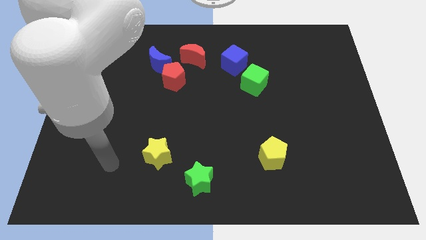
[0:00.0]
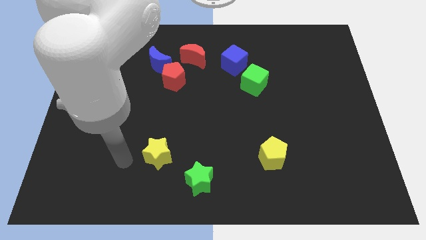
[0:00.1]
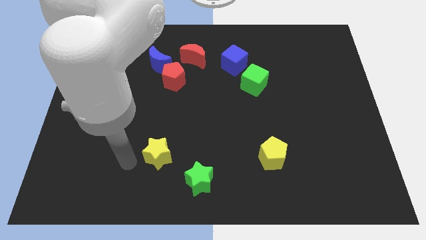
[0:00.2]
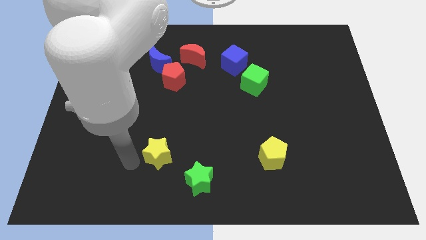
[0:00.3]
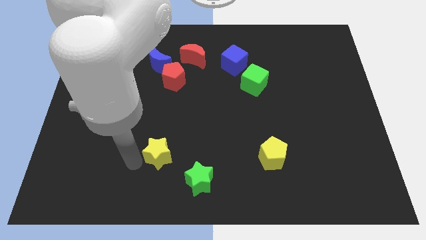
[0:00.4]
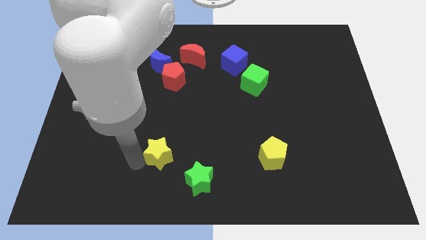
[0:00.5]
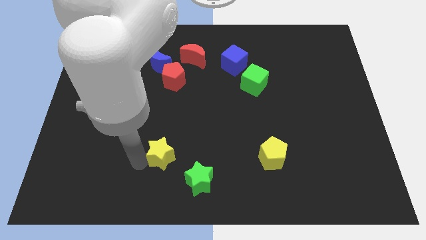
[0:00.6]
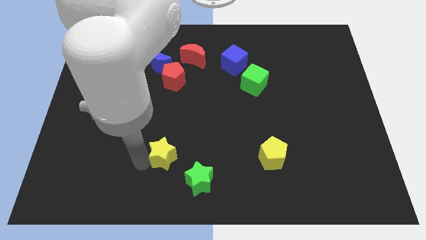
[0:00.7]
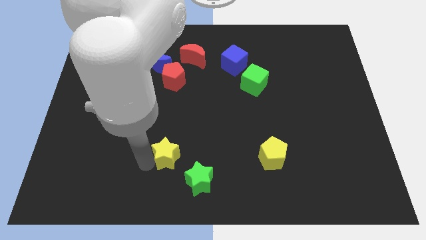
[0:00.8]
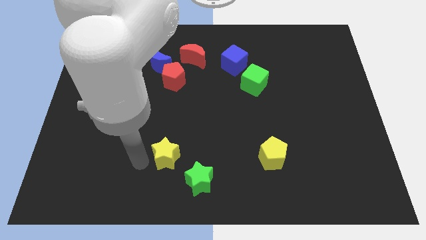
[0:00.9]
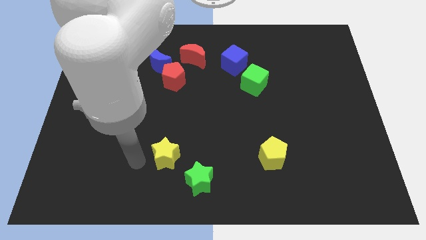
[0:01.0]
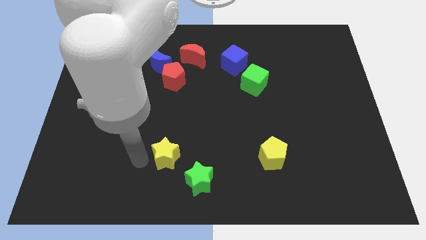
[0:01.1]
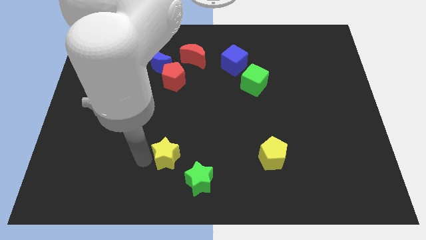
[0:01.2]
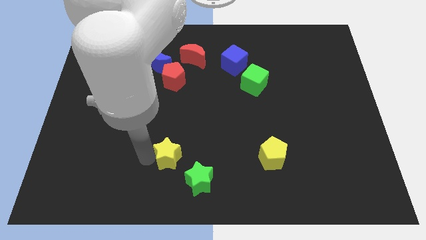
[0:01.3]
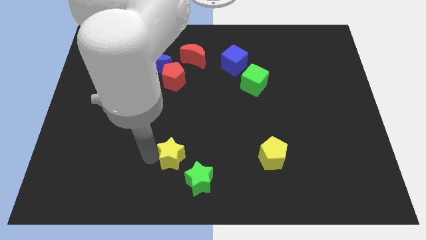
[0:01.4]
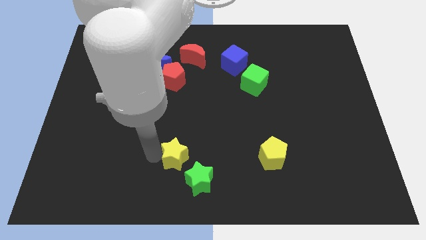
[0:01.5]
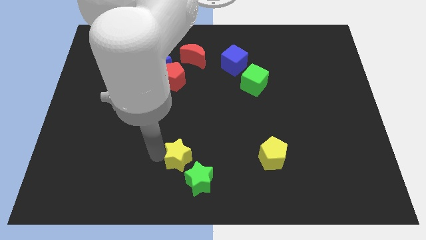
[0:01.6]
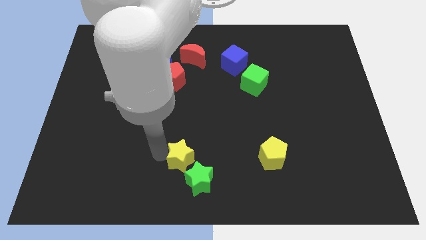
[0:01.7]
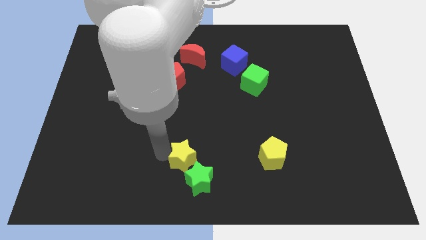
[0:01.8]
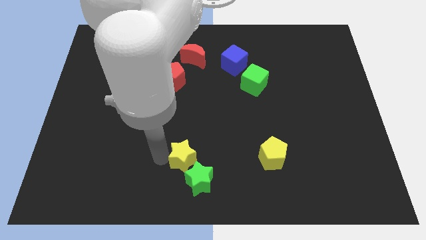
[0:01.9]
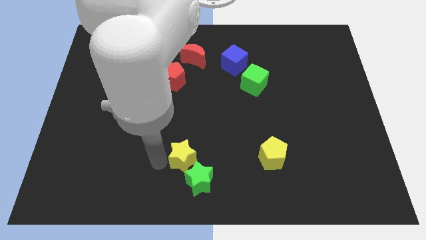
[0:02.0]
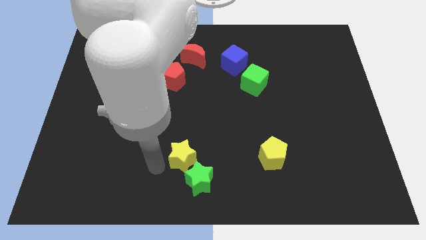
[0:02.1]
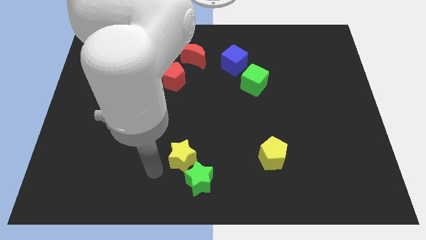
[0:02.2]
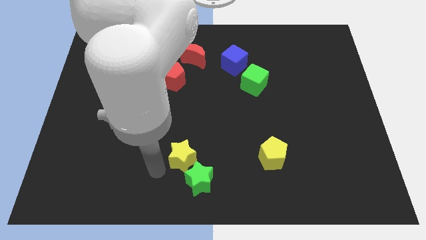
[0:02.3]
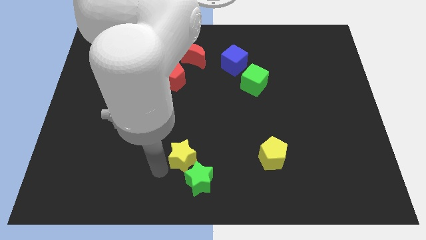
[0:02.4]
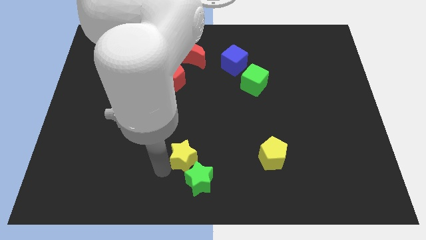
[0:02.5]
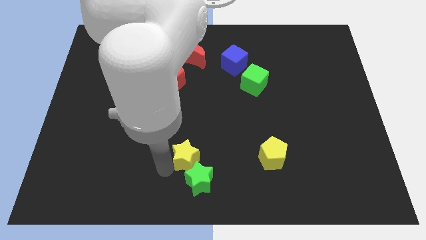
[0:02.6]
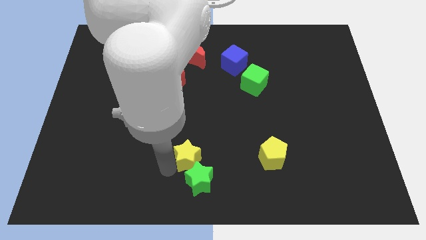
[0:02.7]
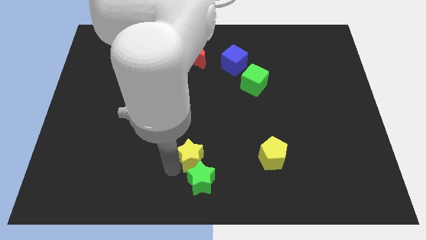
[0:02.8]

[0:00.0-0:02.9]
slide the yellow star a little to the right

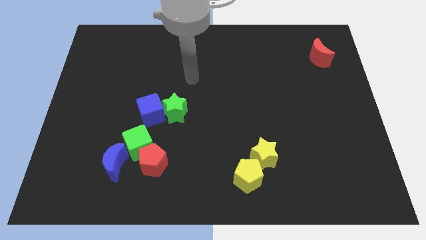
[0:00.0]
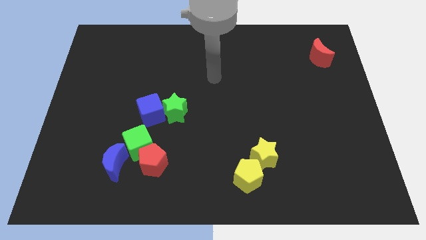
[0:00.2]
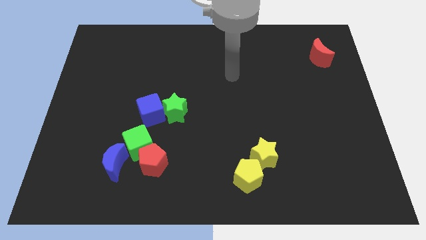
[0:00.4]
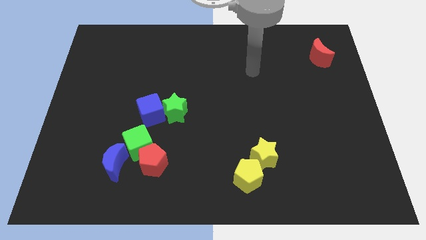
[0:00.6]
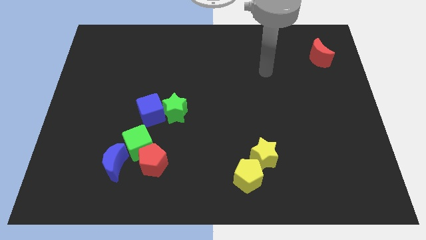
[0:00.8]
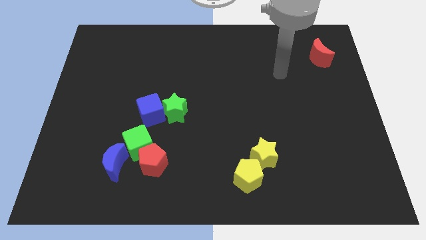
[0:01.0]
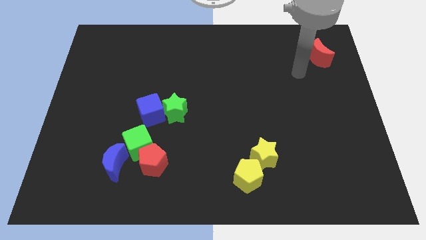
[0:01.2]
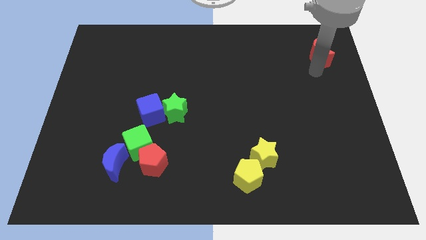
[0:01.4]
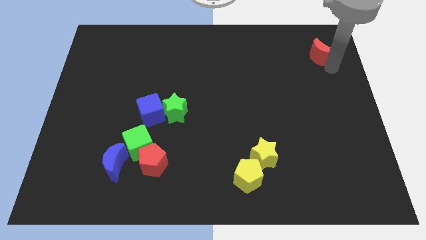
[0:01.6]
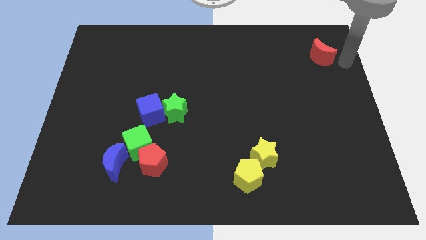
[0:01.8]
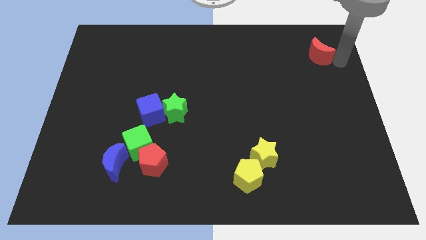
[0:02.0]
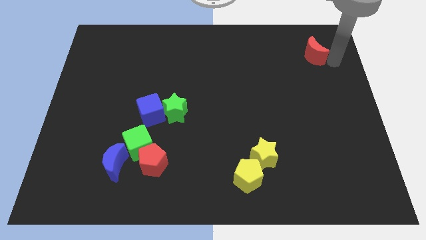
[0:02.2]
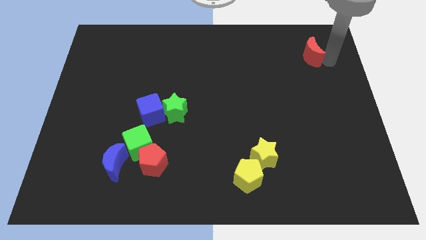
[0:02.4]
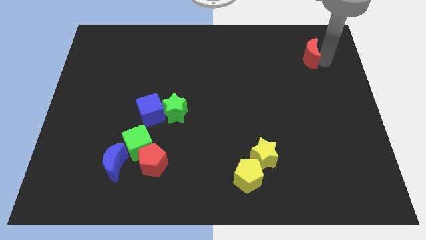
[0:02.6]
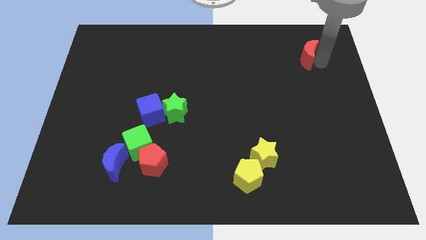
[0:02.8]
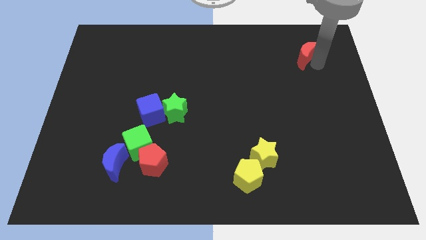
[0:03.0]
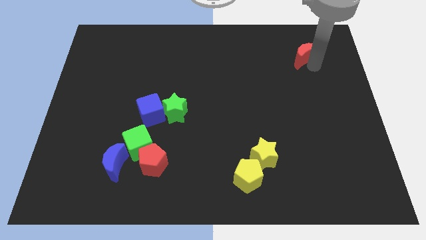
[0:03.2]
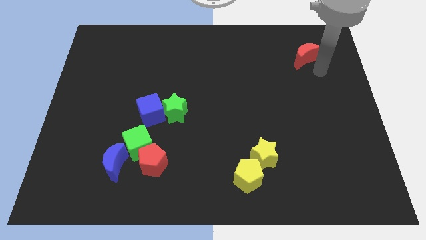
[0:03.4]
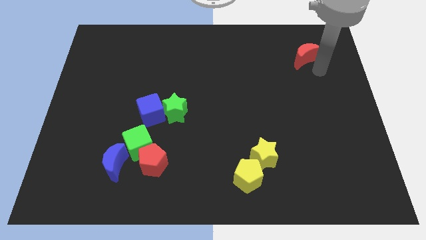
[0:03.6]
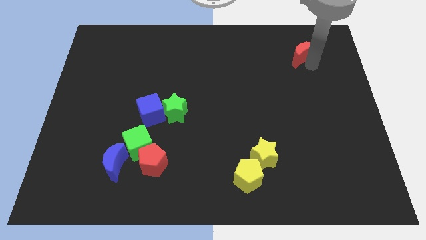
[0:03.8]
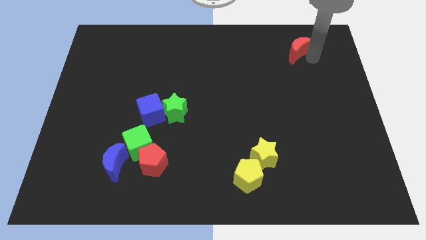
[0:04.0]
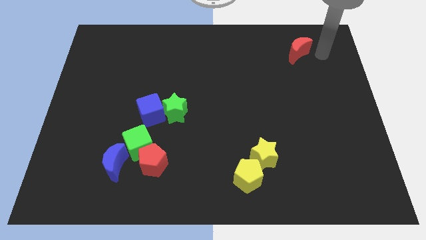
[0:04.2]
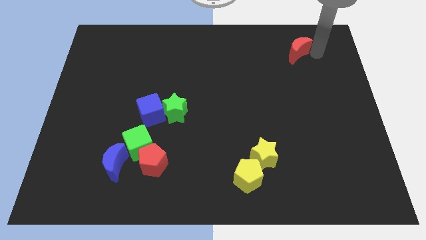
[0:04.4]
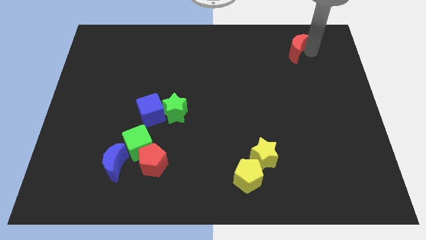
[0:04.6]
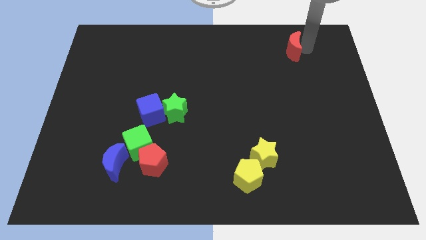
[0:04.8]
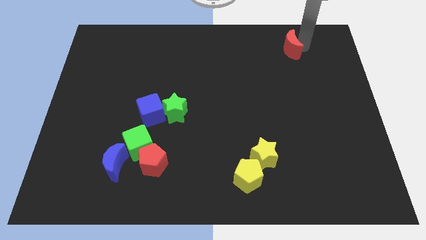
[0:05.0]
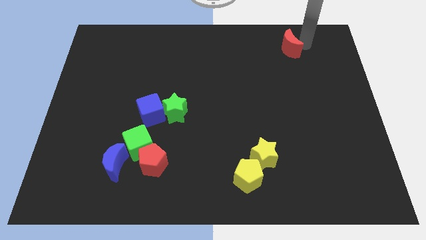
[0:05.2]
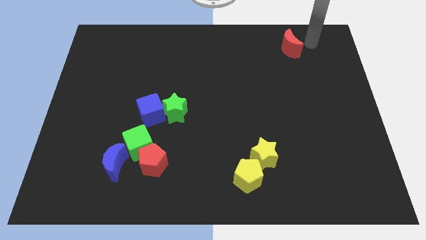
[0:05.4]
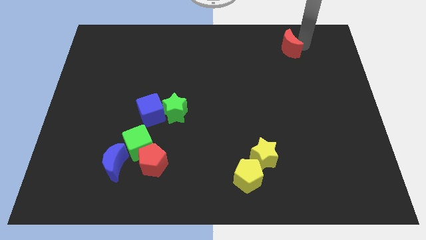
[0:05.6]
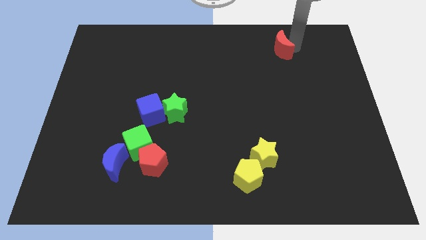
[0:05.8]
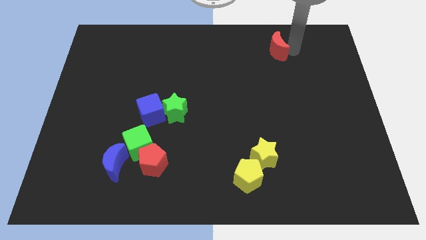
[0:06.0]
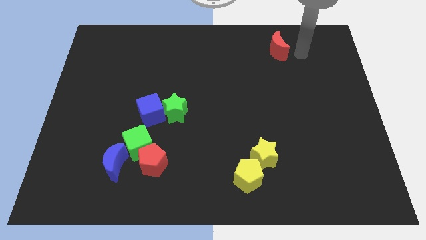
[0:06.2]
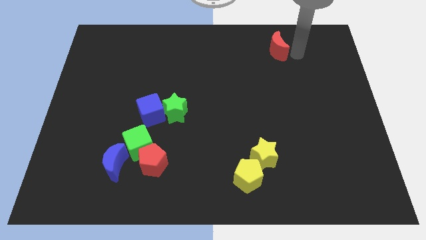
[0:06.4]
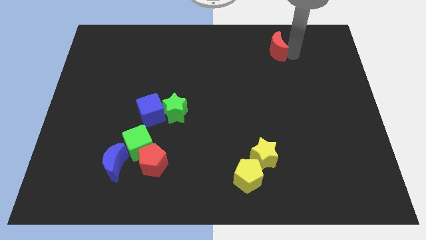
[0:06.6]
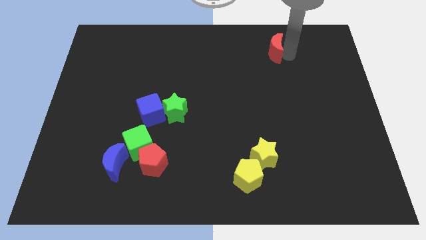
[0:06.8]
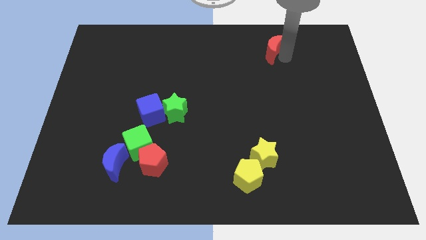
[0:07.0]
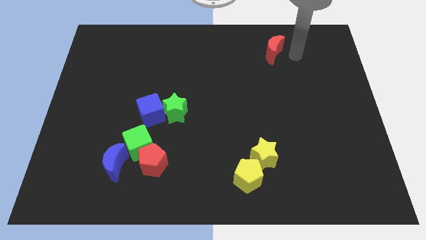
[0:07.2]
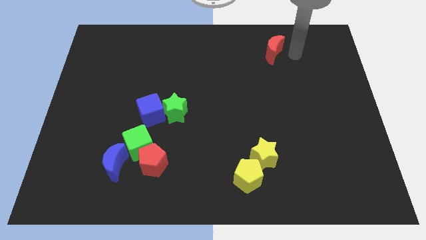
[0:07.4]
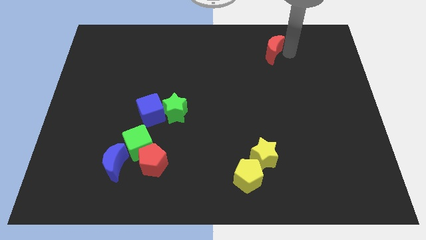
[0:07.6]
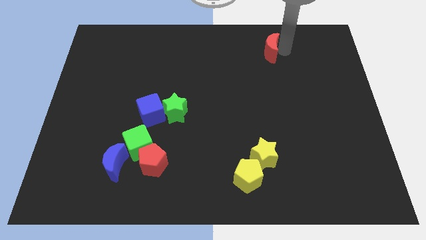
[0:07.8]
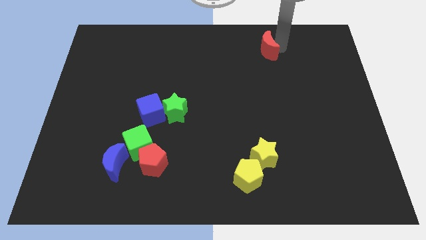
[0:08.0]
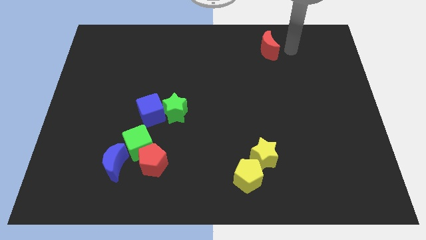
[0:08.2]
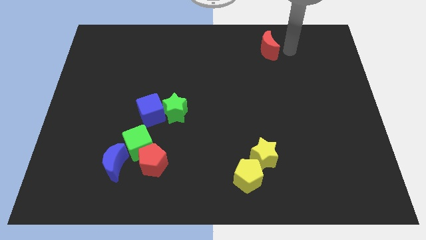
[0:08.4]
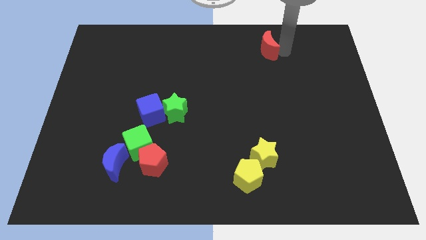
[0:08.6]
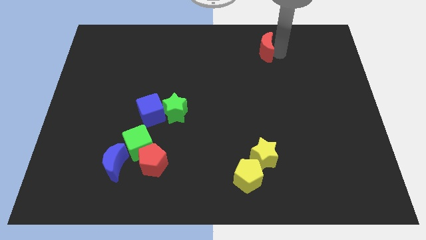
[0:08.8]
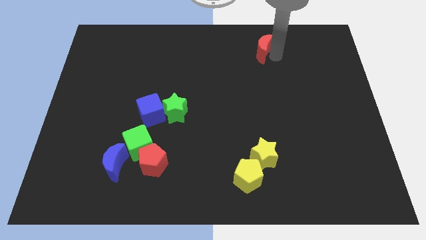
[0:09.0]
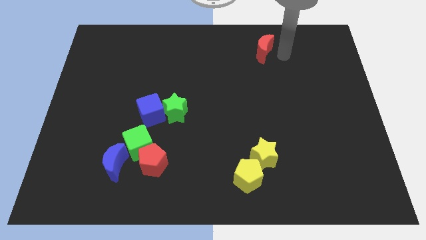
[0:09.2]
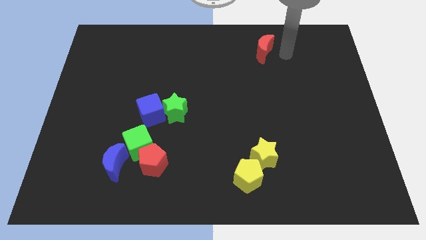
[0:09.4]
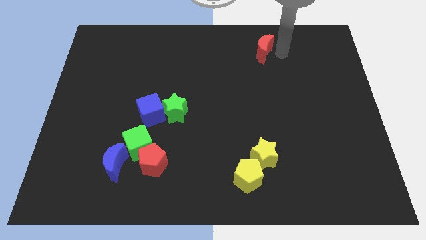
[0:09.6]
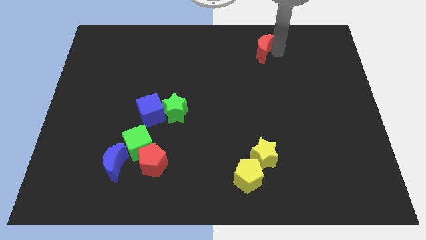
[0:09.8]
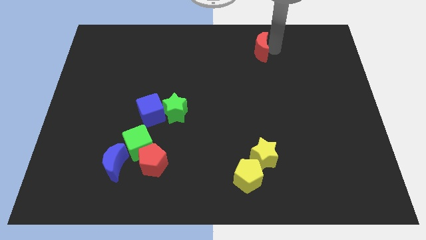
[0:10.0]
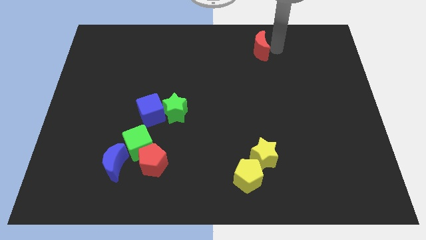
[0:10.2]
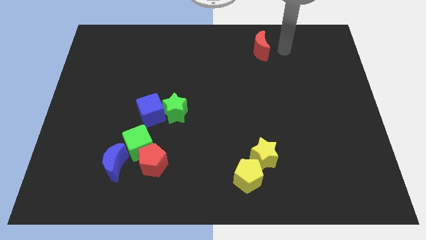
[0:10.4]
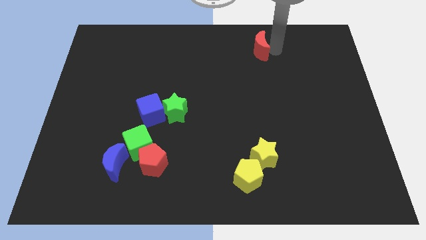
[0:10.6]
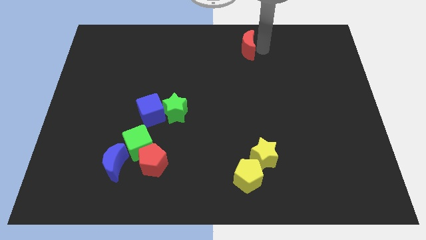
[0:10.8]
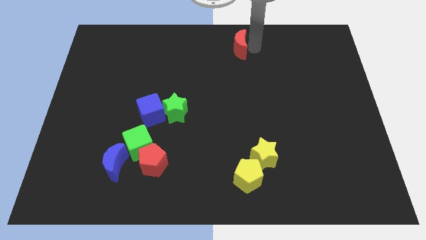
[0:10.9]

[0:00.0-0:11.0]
slide the red moon left

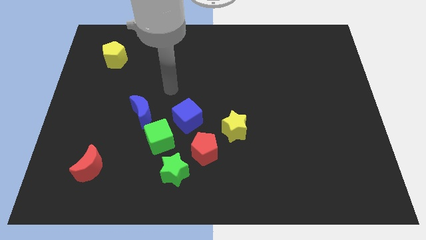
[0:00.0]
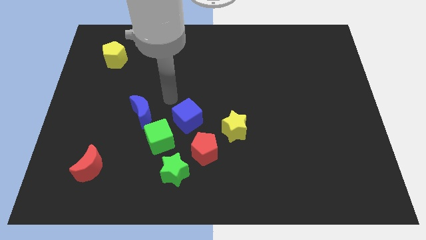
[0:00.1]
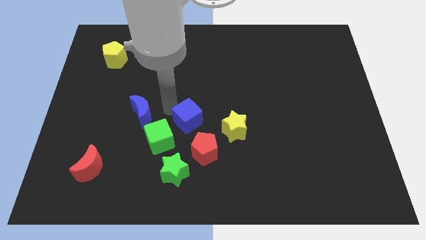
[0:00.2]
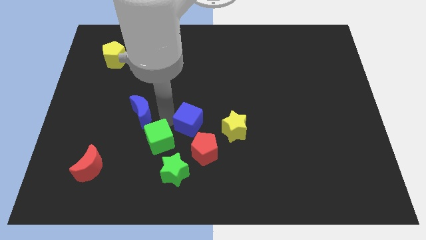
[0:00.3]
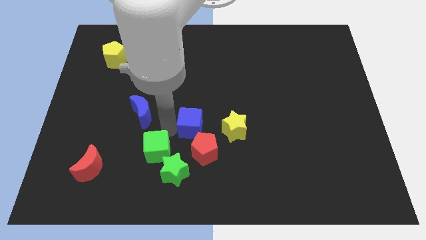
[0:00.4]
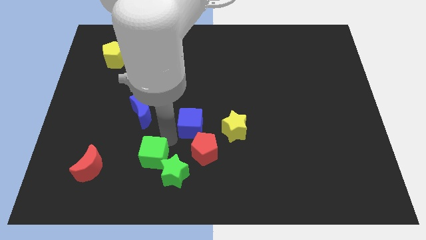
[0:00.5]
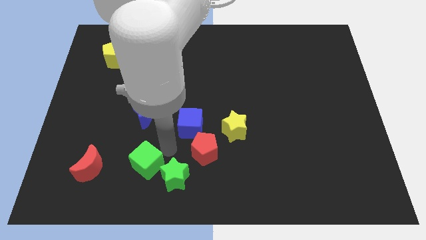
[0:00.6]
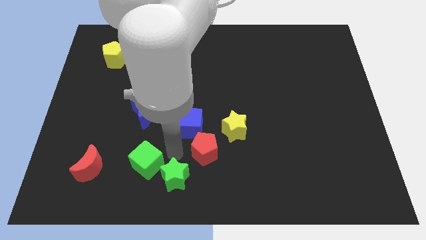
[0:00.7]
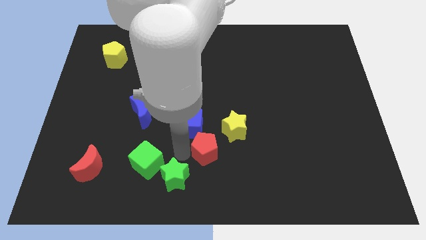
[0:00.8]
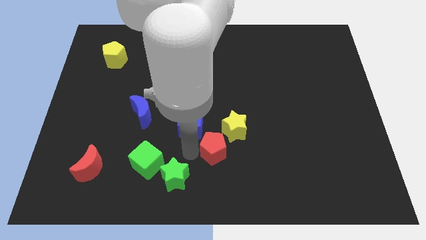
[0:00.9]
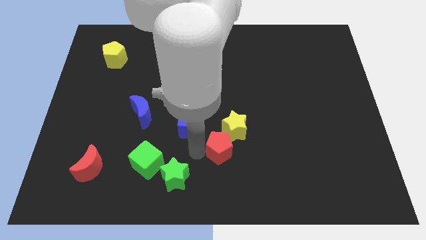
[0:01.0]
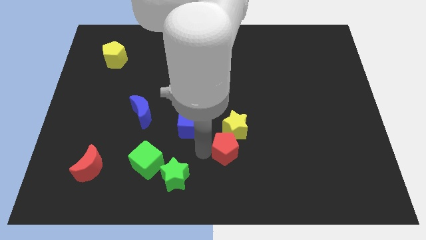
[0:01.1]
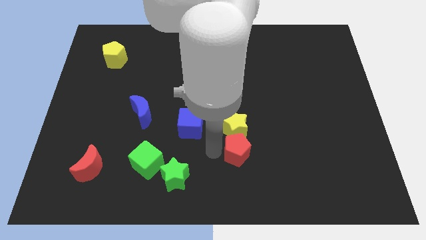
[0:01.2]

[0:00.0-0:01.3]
move the red pentagon right a bit
